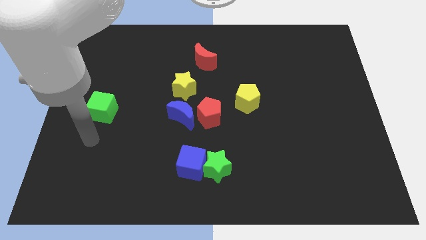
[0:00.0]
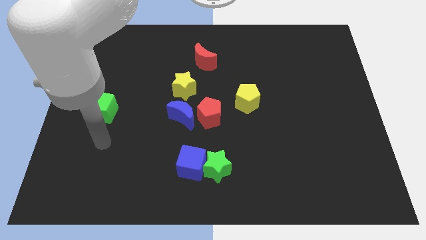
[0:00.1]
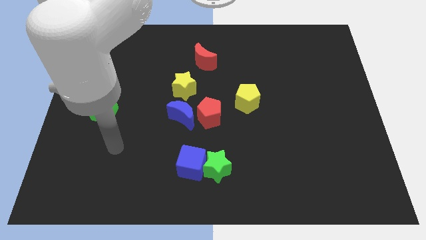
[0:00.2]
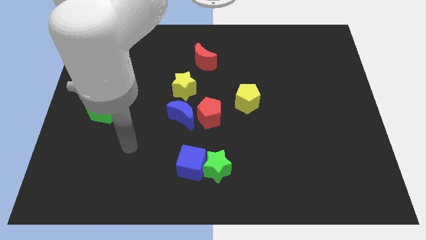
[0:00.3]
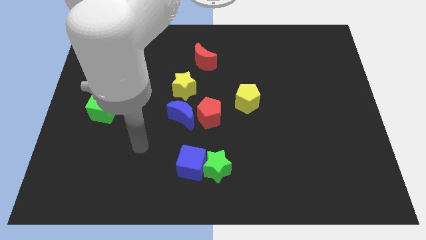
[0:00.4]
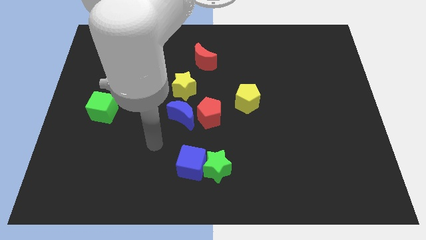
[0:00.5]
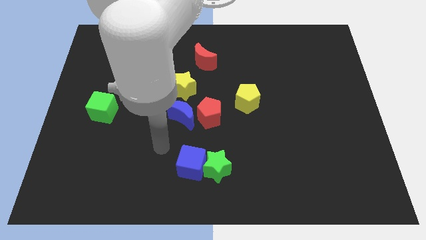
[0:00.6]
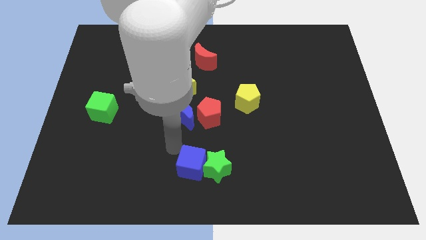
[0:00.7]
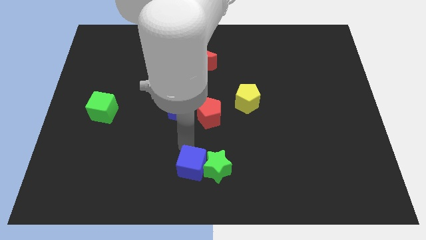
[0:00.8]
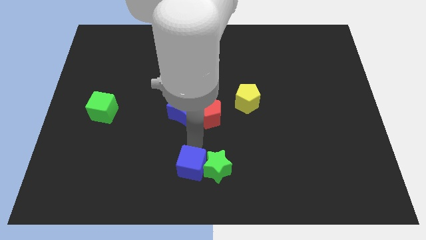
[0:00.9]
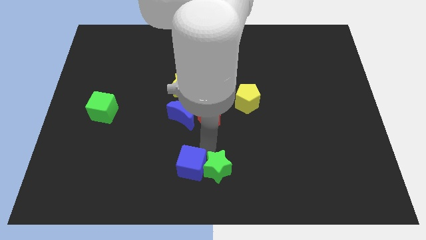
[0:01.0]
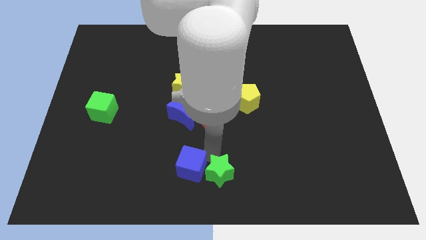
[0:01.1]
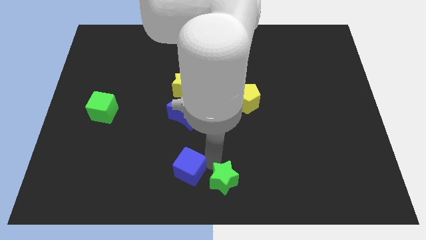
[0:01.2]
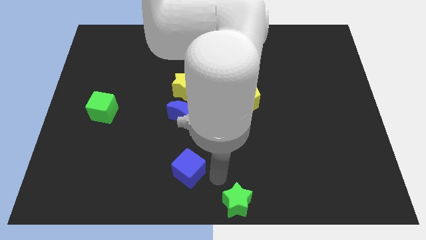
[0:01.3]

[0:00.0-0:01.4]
separate the blue cube from the green star

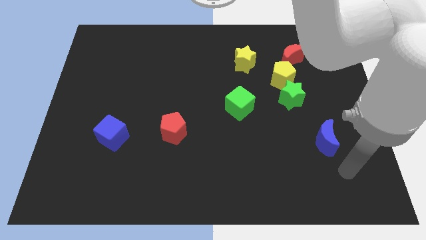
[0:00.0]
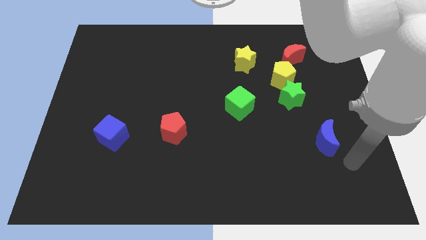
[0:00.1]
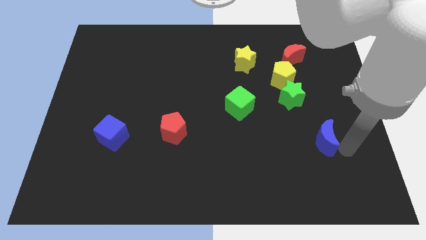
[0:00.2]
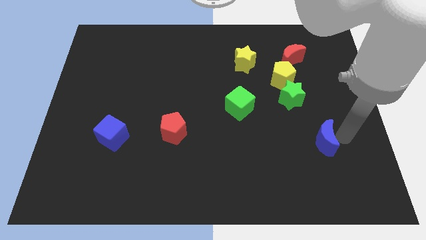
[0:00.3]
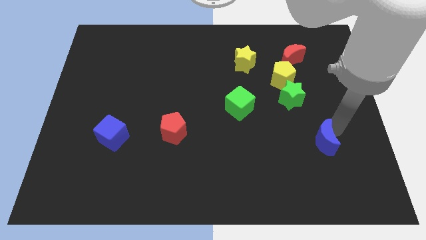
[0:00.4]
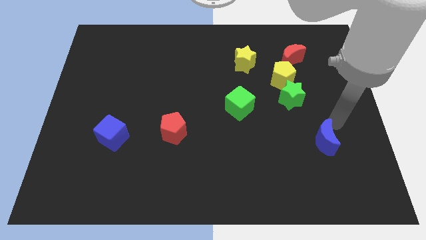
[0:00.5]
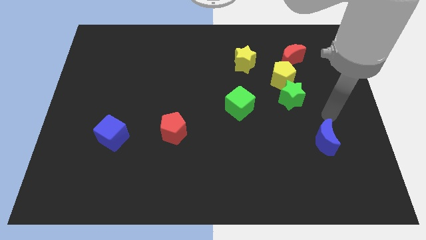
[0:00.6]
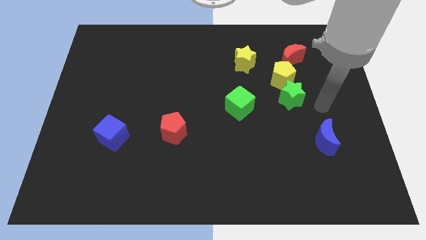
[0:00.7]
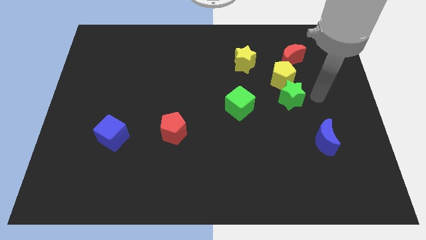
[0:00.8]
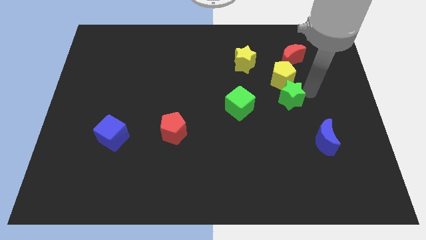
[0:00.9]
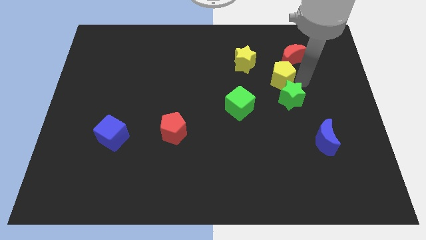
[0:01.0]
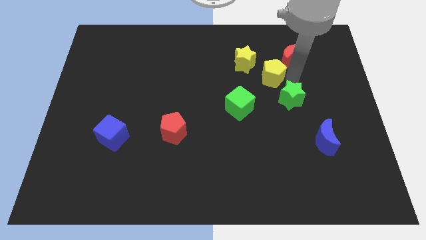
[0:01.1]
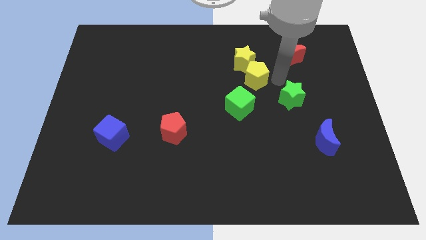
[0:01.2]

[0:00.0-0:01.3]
pull the green star apart from the yellow pentagon

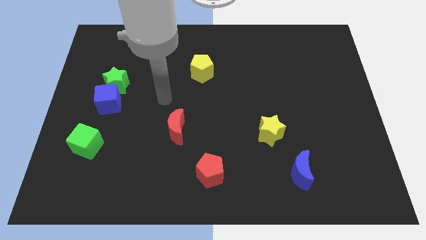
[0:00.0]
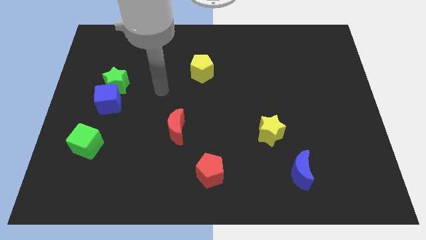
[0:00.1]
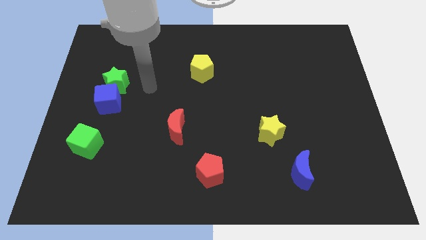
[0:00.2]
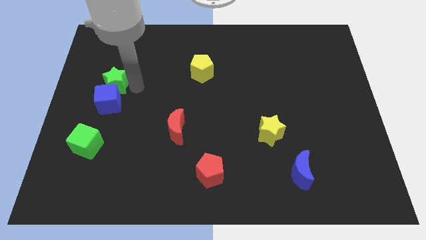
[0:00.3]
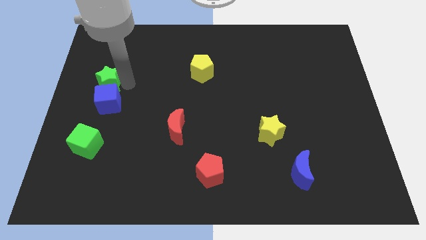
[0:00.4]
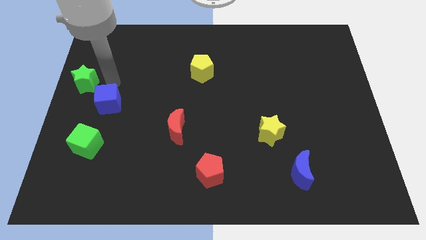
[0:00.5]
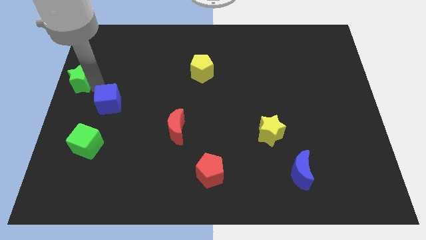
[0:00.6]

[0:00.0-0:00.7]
move the blue cube away from the green star

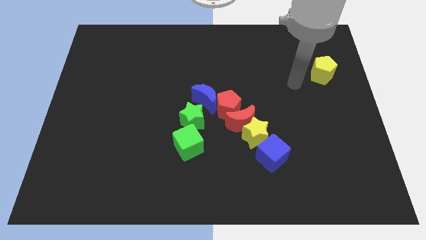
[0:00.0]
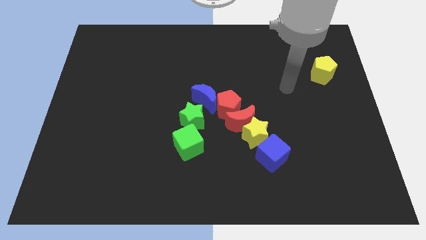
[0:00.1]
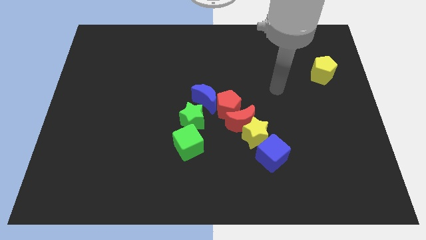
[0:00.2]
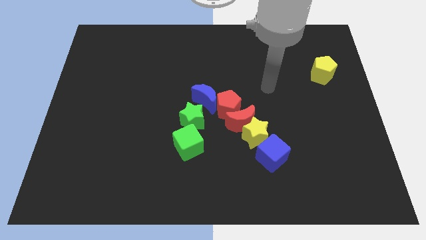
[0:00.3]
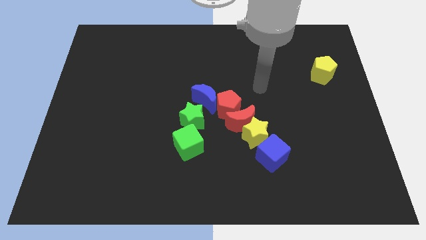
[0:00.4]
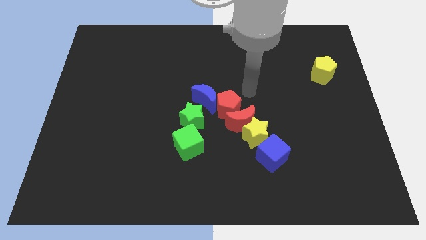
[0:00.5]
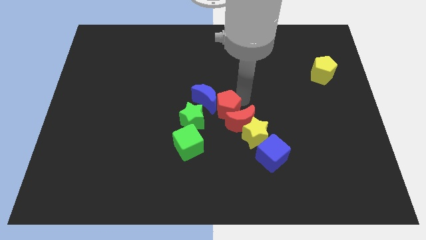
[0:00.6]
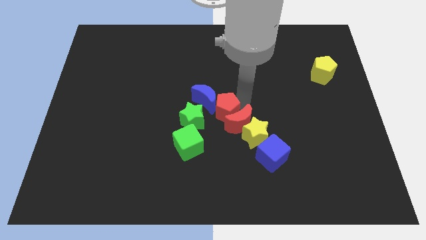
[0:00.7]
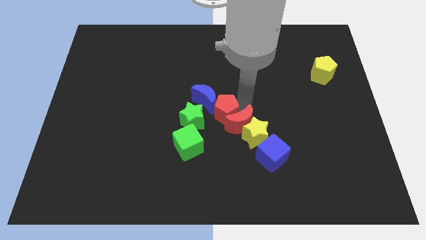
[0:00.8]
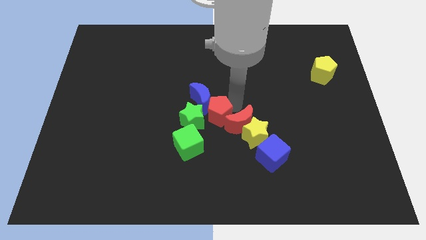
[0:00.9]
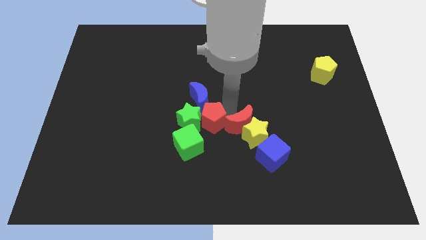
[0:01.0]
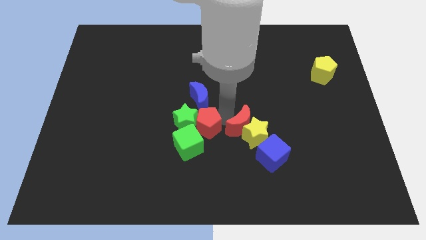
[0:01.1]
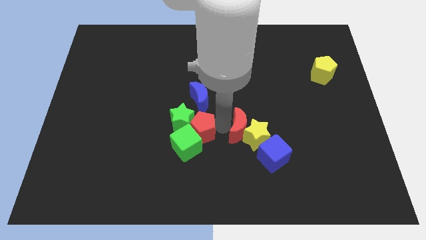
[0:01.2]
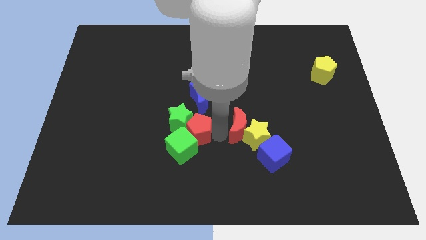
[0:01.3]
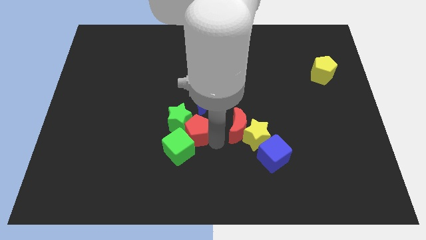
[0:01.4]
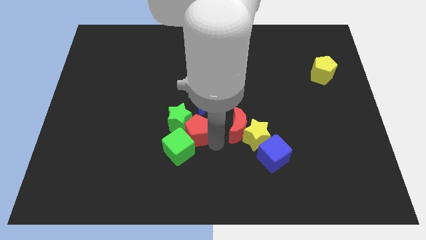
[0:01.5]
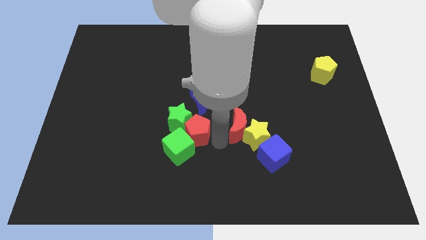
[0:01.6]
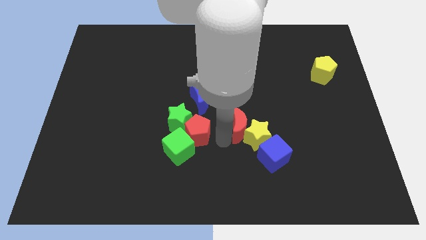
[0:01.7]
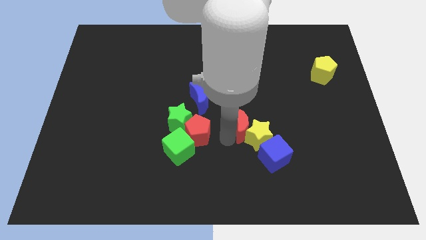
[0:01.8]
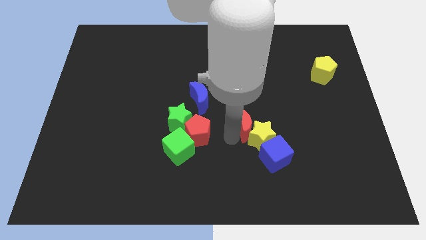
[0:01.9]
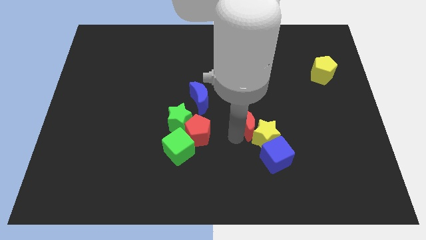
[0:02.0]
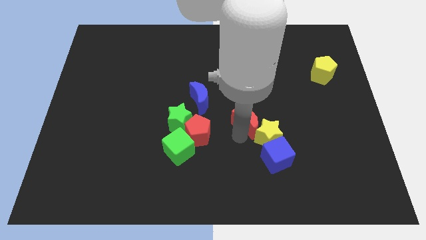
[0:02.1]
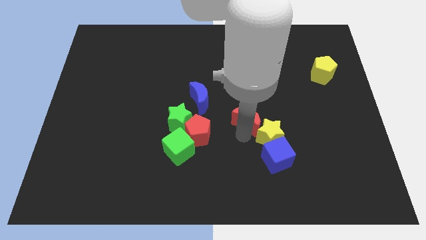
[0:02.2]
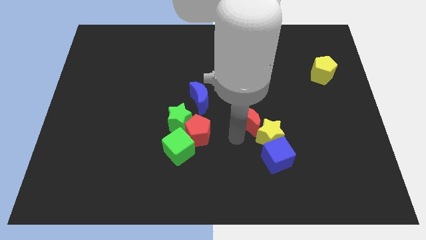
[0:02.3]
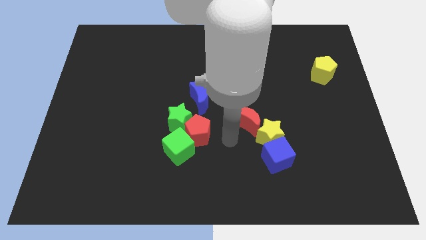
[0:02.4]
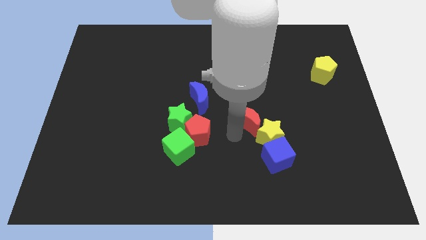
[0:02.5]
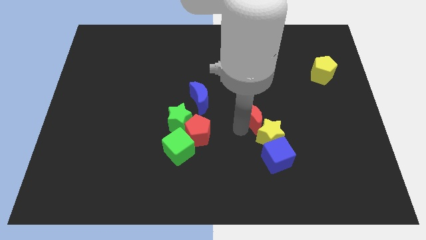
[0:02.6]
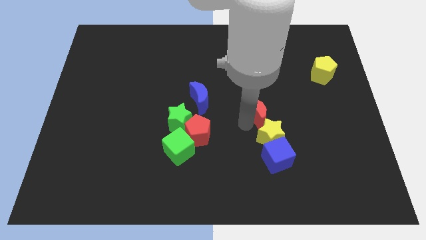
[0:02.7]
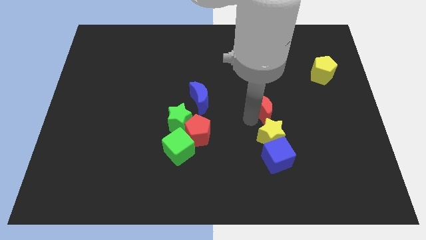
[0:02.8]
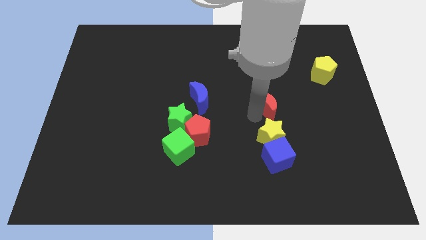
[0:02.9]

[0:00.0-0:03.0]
pull the red moon apart from the yellow star and red pentagon

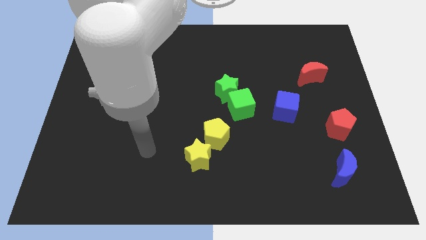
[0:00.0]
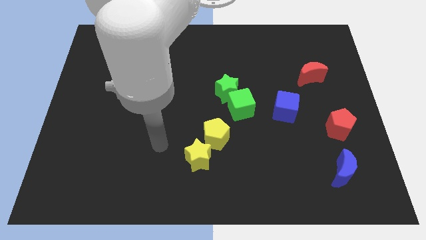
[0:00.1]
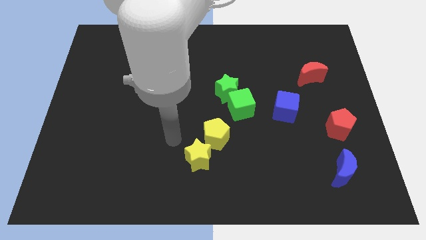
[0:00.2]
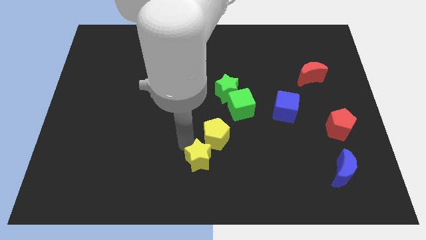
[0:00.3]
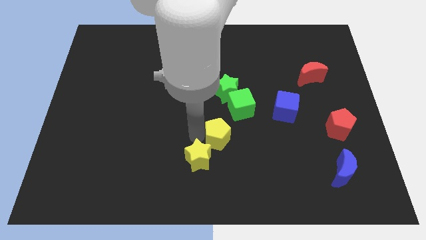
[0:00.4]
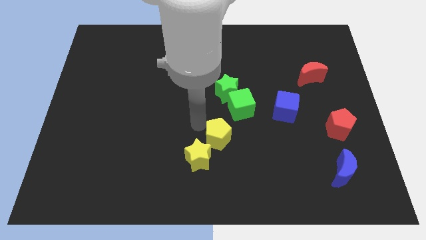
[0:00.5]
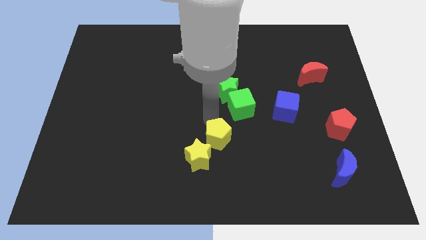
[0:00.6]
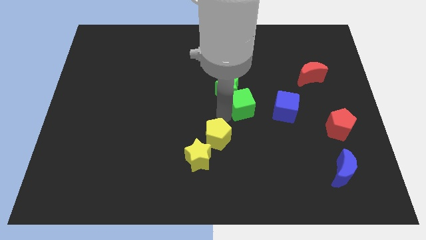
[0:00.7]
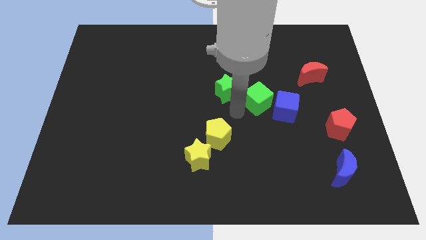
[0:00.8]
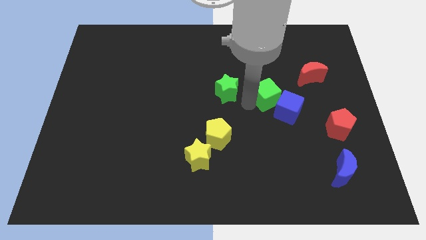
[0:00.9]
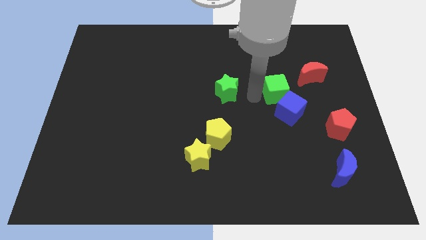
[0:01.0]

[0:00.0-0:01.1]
separate the green star from the green cube

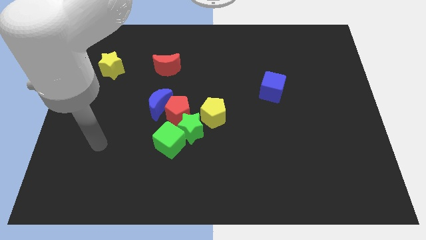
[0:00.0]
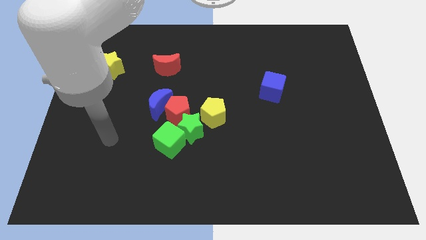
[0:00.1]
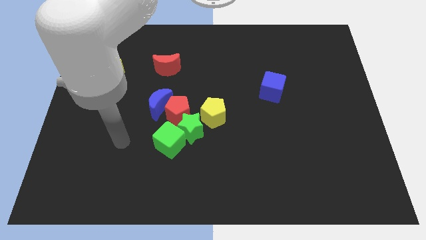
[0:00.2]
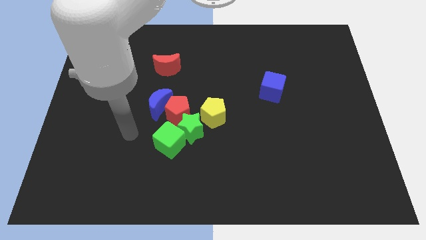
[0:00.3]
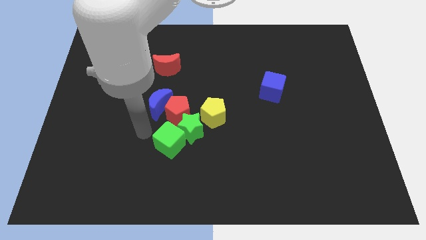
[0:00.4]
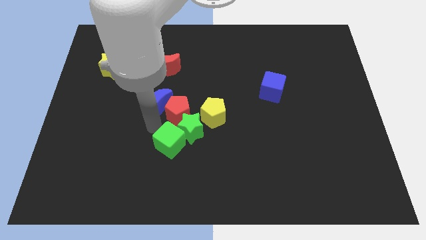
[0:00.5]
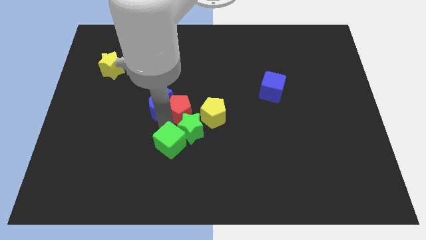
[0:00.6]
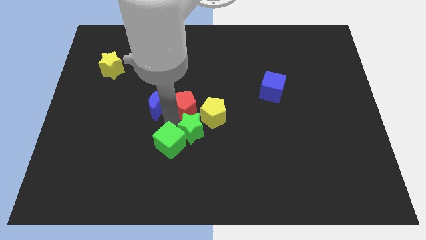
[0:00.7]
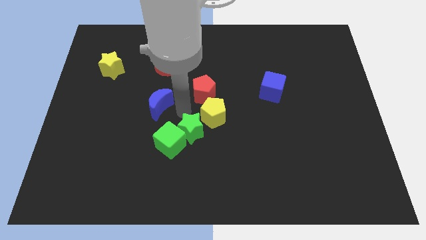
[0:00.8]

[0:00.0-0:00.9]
pull the blue moon apart from the red pentagon

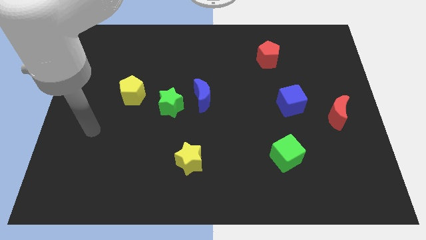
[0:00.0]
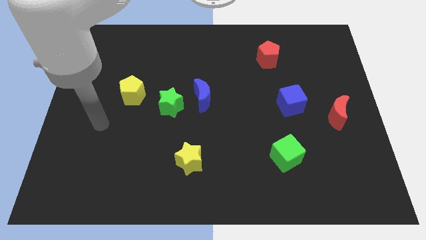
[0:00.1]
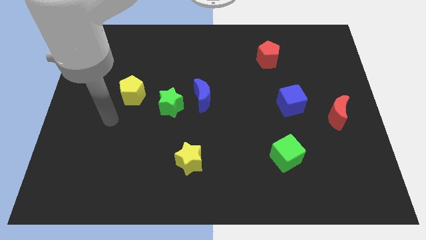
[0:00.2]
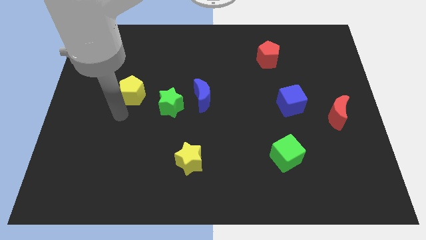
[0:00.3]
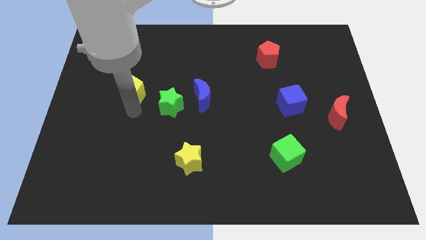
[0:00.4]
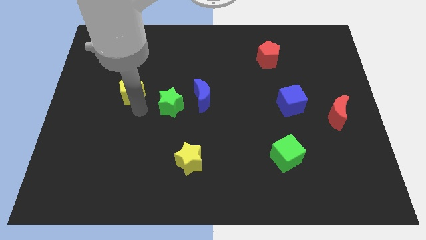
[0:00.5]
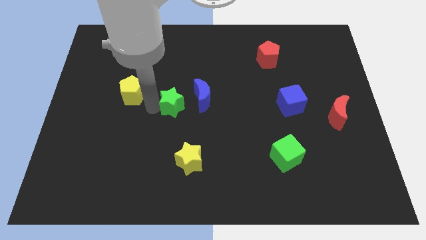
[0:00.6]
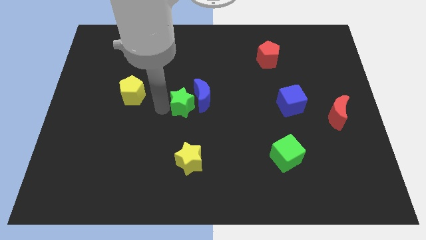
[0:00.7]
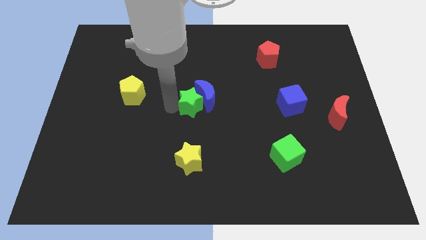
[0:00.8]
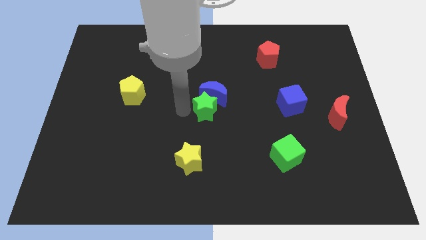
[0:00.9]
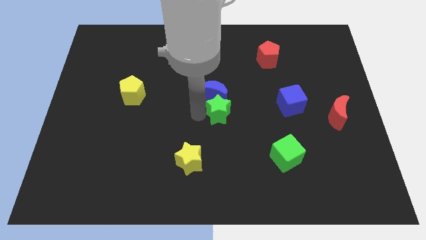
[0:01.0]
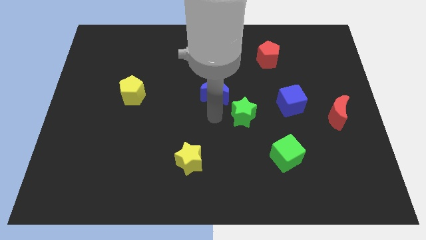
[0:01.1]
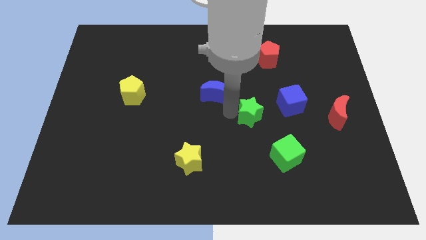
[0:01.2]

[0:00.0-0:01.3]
move the blue moon away from the green star
